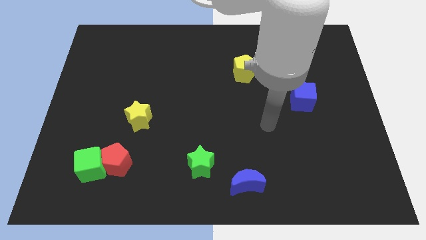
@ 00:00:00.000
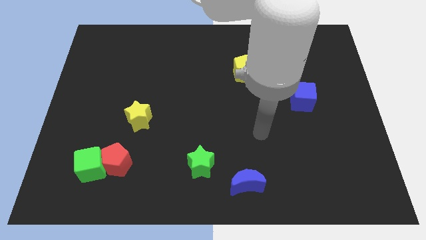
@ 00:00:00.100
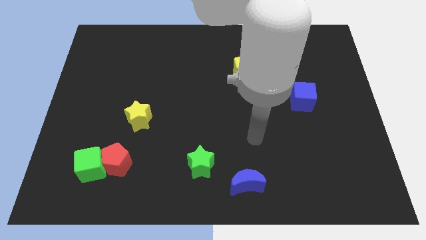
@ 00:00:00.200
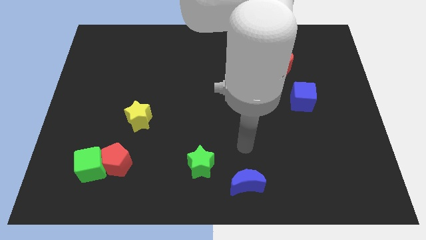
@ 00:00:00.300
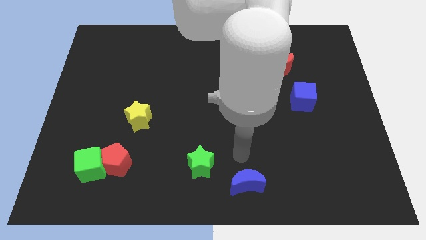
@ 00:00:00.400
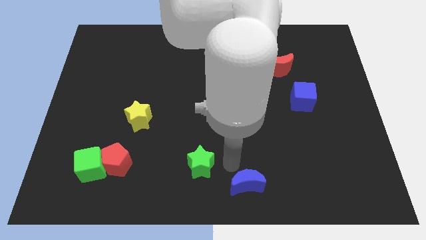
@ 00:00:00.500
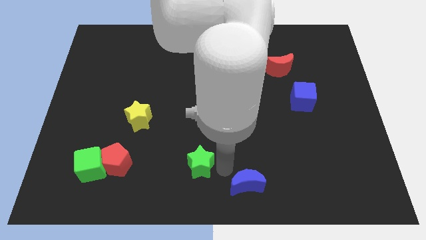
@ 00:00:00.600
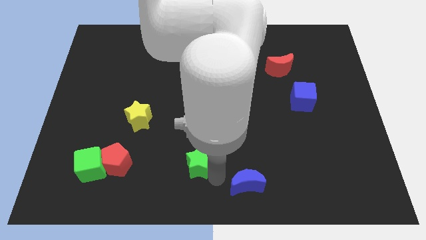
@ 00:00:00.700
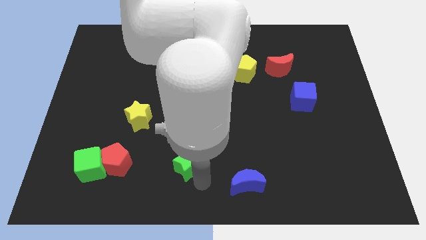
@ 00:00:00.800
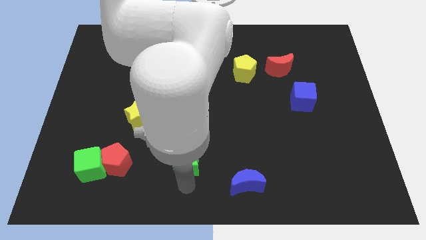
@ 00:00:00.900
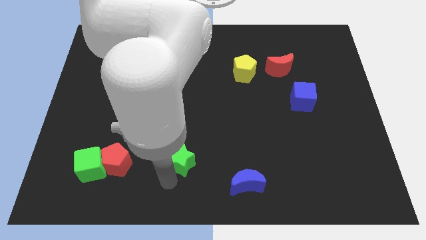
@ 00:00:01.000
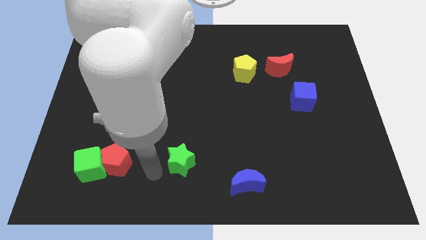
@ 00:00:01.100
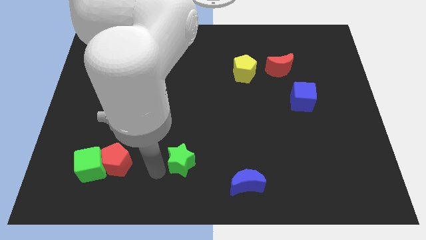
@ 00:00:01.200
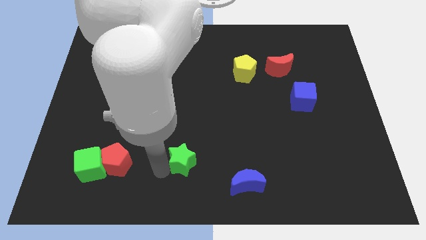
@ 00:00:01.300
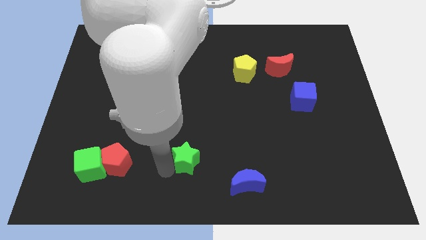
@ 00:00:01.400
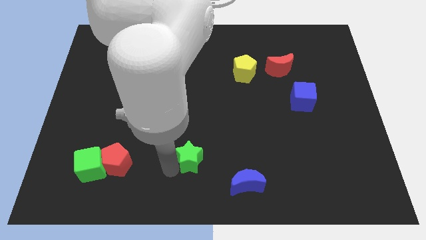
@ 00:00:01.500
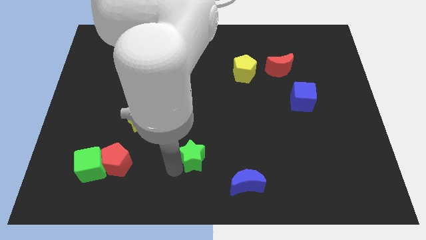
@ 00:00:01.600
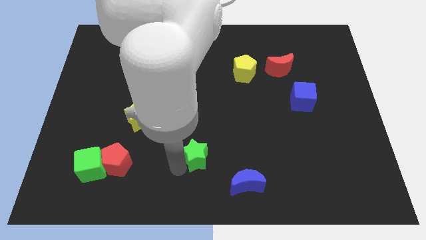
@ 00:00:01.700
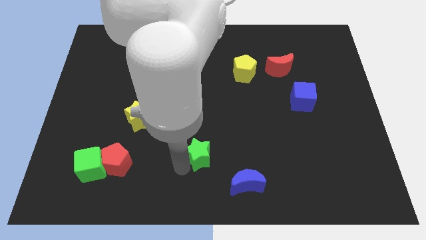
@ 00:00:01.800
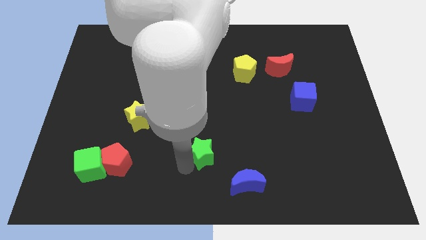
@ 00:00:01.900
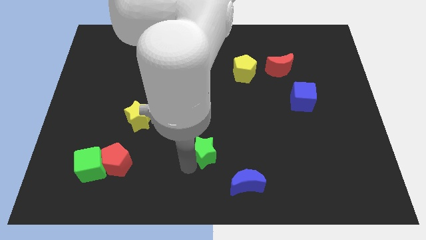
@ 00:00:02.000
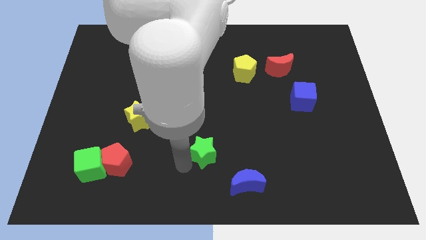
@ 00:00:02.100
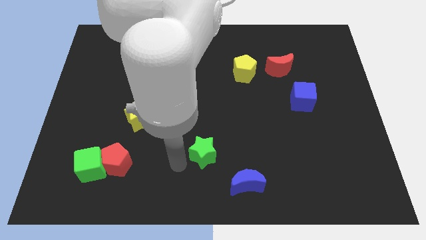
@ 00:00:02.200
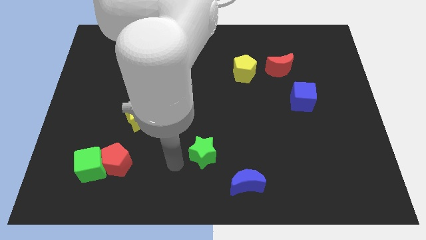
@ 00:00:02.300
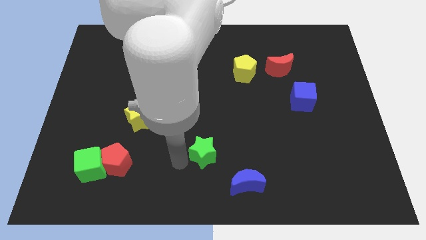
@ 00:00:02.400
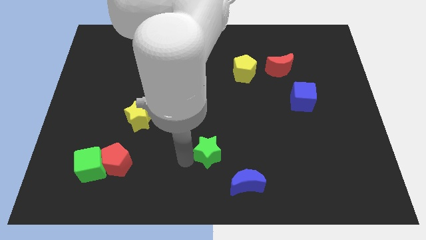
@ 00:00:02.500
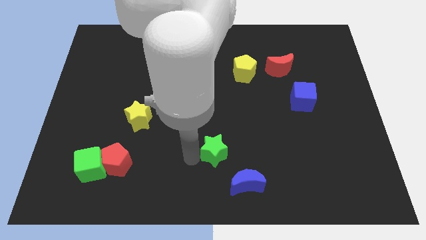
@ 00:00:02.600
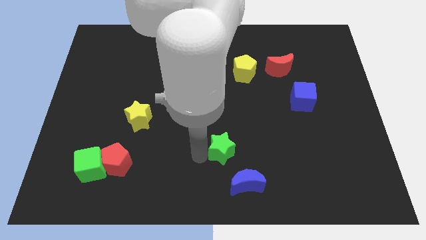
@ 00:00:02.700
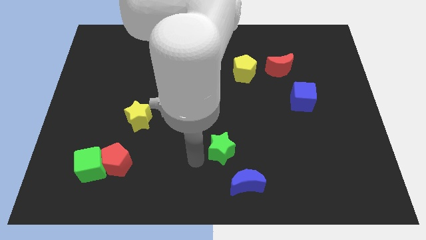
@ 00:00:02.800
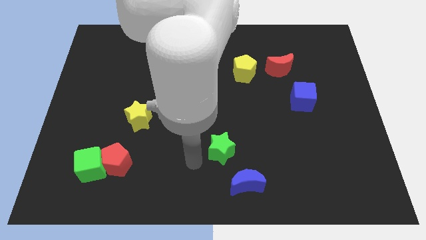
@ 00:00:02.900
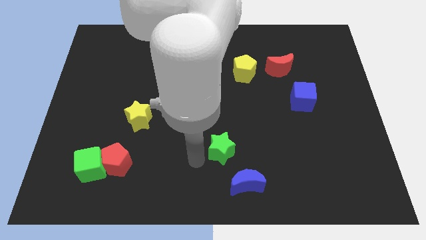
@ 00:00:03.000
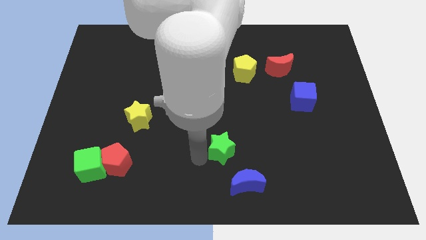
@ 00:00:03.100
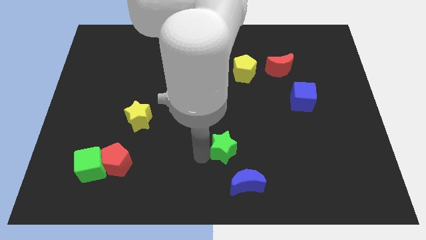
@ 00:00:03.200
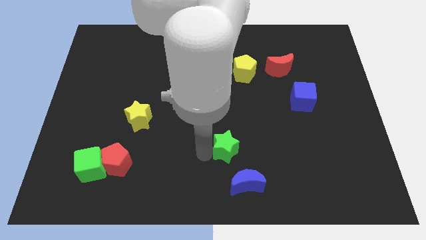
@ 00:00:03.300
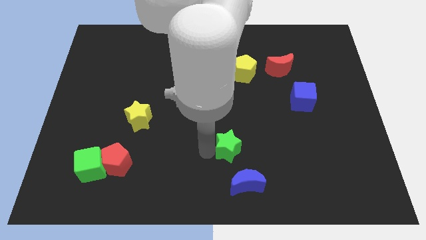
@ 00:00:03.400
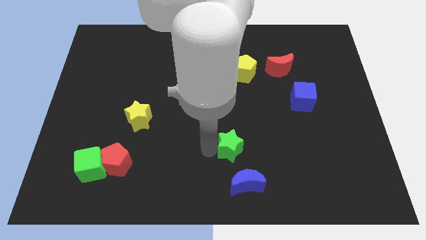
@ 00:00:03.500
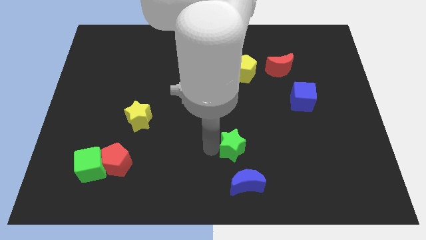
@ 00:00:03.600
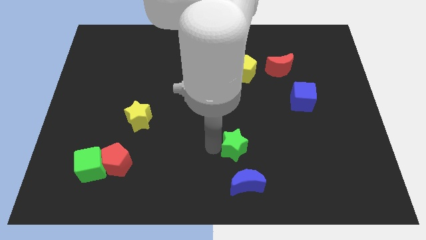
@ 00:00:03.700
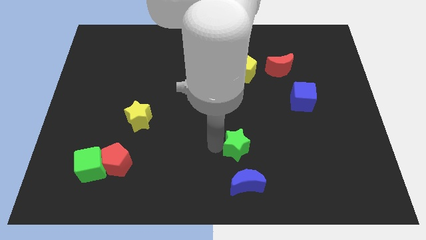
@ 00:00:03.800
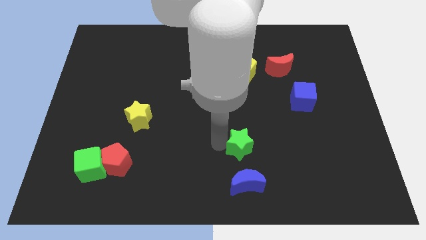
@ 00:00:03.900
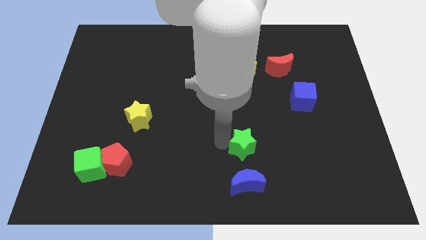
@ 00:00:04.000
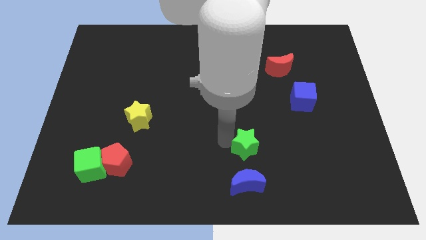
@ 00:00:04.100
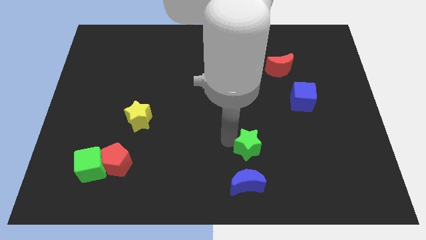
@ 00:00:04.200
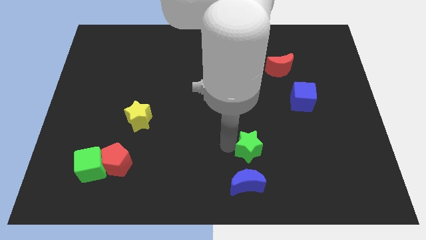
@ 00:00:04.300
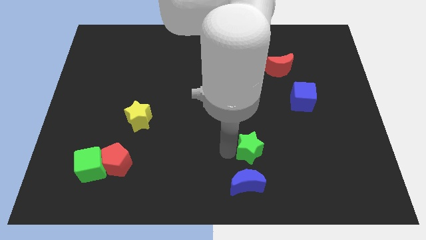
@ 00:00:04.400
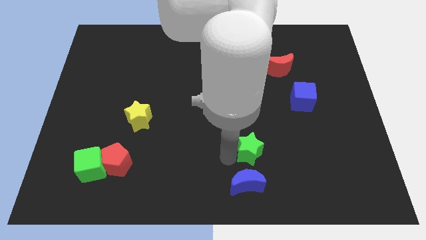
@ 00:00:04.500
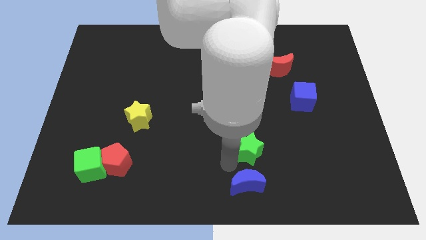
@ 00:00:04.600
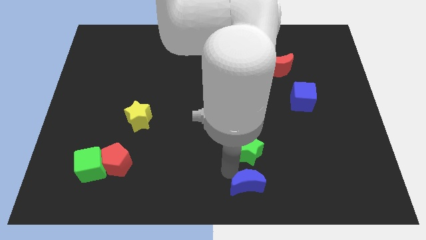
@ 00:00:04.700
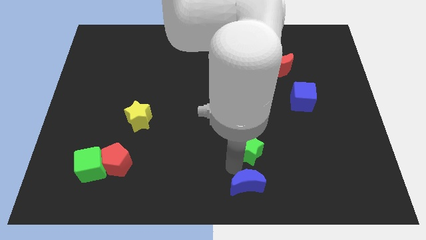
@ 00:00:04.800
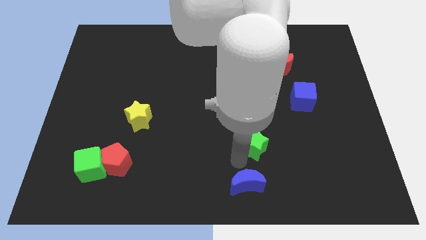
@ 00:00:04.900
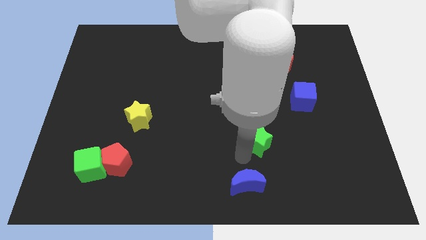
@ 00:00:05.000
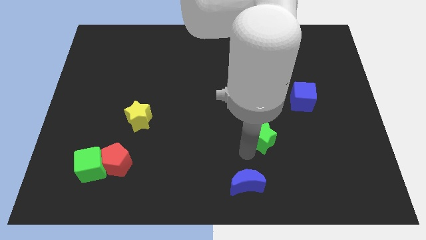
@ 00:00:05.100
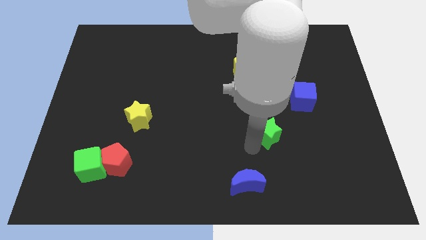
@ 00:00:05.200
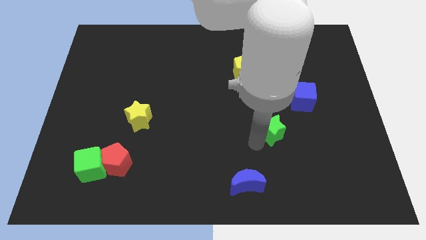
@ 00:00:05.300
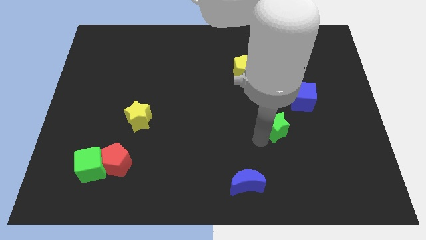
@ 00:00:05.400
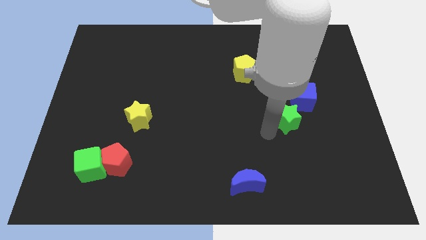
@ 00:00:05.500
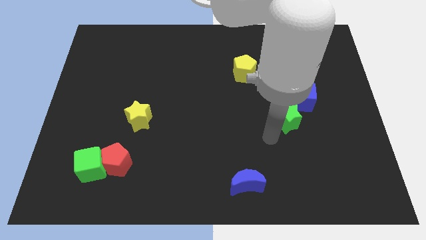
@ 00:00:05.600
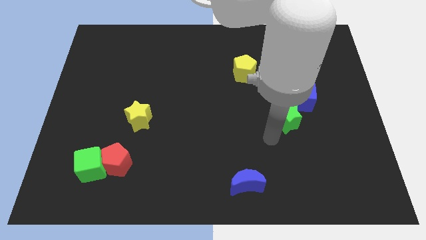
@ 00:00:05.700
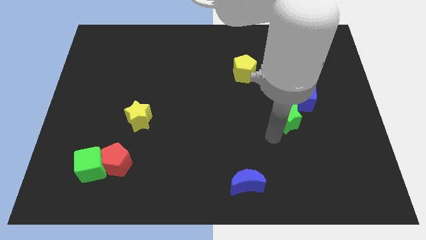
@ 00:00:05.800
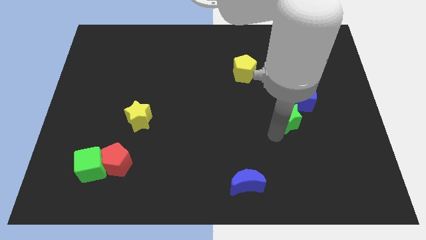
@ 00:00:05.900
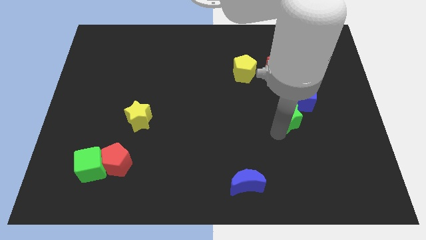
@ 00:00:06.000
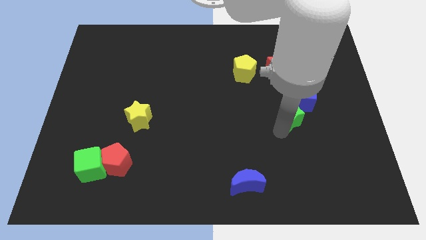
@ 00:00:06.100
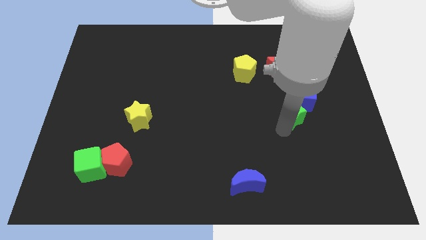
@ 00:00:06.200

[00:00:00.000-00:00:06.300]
slide the green star close to the blue cube

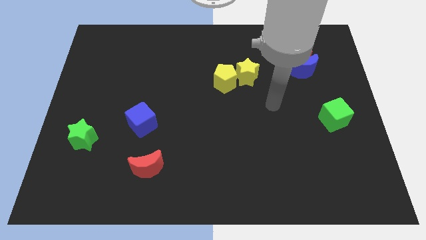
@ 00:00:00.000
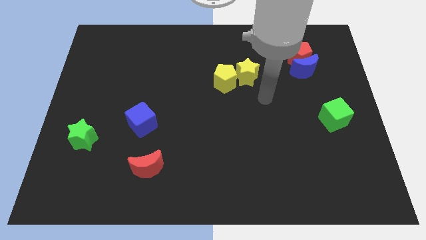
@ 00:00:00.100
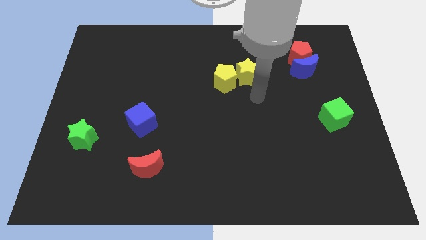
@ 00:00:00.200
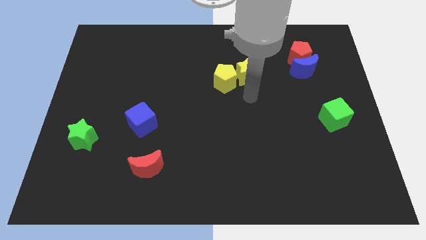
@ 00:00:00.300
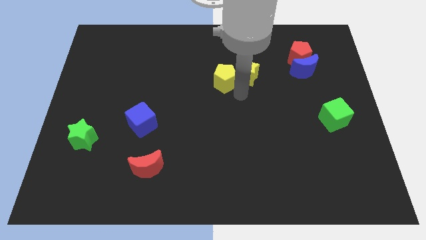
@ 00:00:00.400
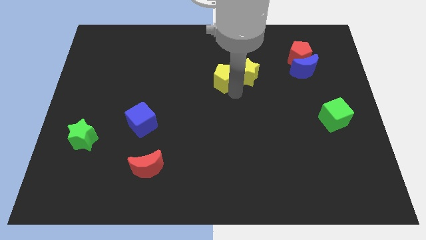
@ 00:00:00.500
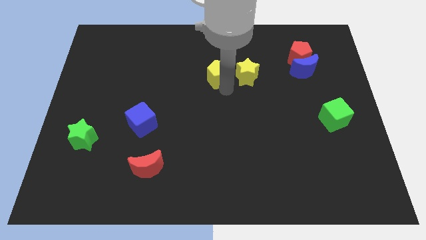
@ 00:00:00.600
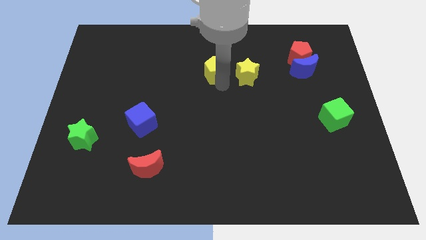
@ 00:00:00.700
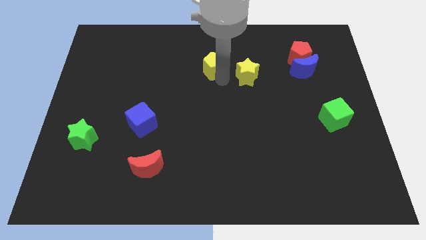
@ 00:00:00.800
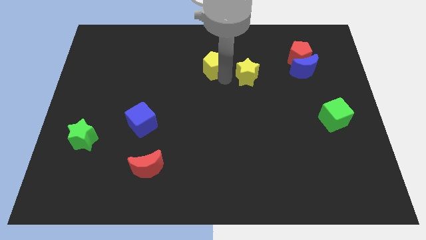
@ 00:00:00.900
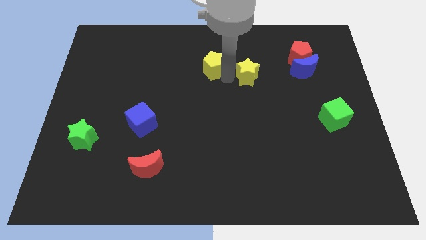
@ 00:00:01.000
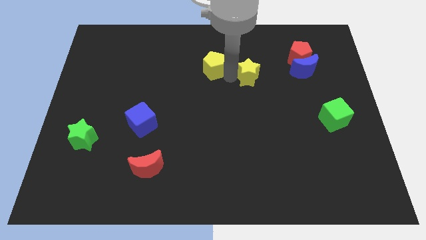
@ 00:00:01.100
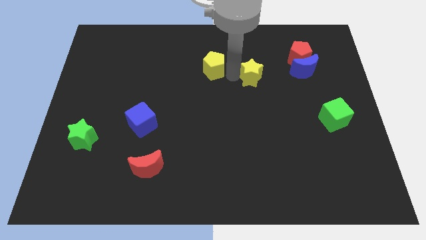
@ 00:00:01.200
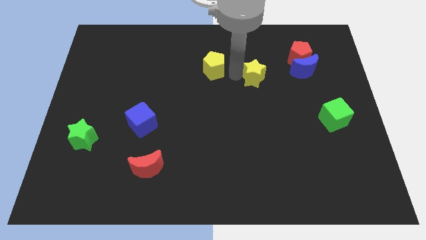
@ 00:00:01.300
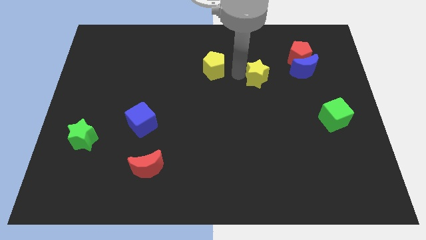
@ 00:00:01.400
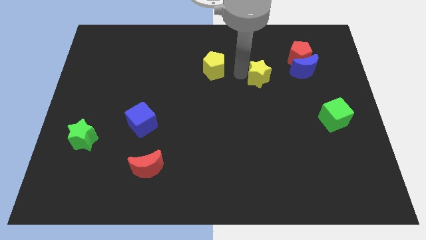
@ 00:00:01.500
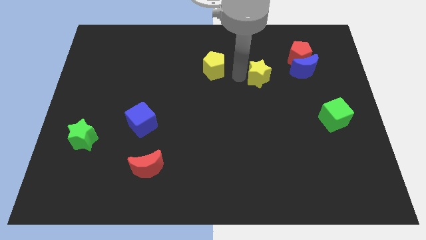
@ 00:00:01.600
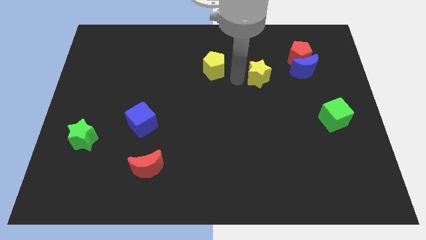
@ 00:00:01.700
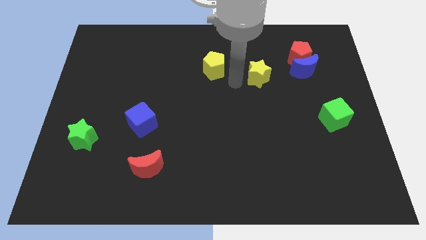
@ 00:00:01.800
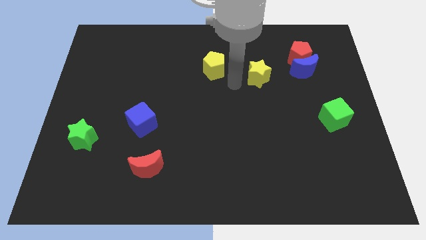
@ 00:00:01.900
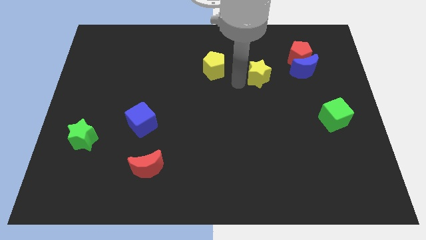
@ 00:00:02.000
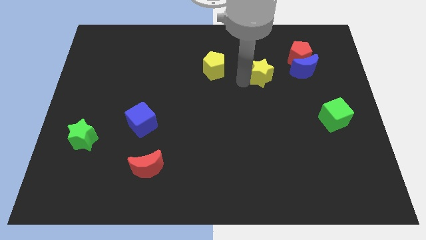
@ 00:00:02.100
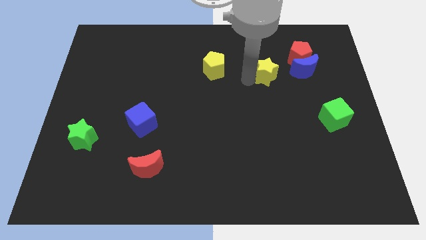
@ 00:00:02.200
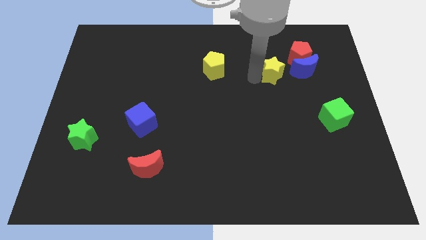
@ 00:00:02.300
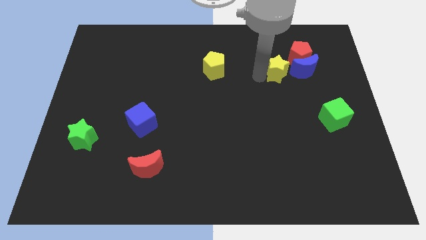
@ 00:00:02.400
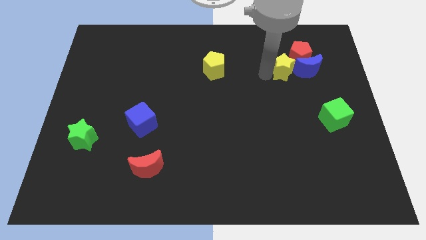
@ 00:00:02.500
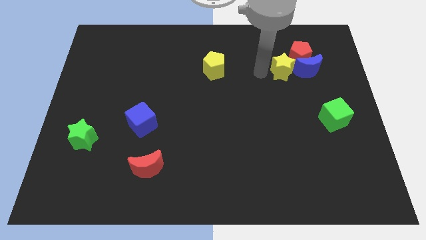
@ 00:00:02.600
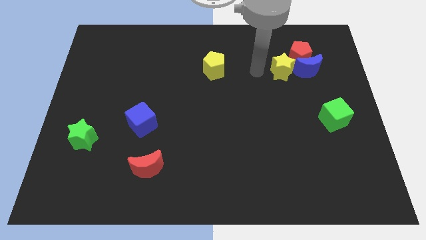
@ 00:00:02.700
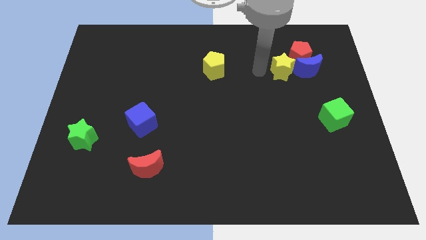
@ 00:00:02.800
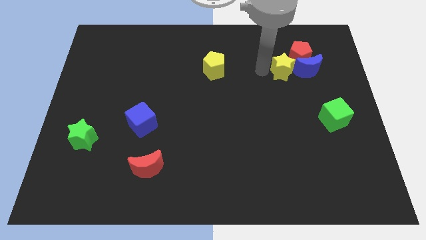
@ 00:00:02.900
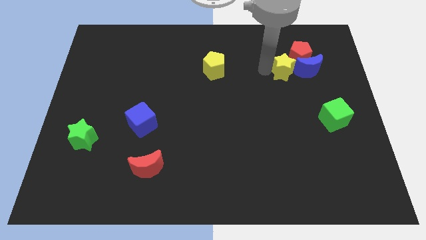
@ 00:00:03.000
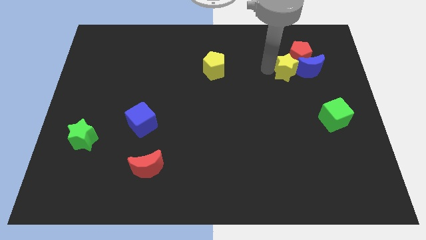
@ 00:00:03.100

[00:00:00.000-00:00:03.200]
put the yellow star close to the blue moon
